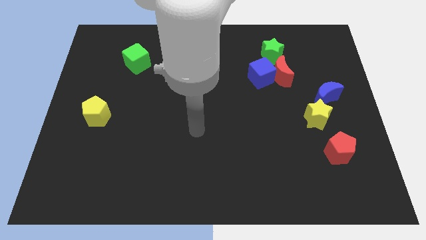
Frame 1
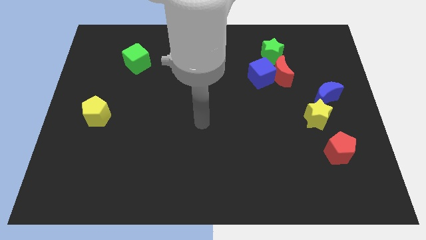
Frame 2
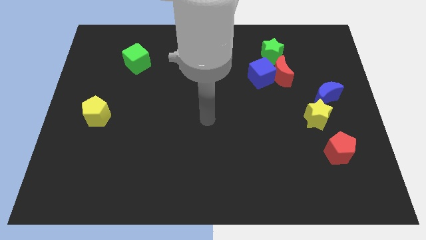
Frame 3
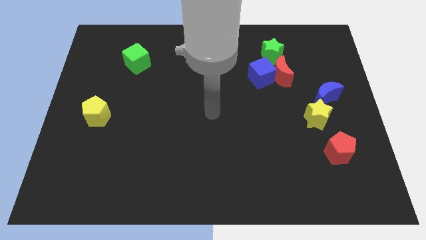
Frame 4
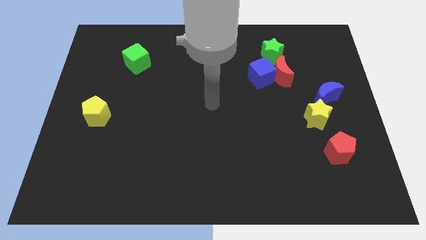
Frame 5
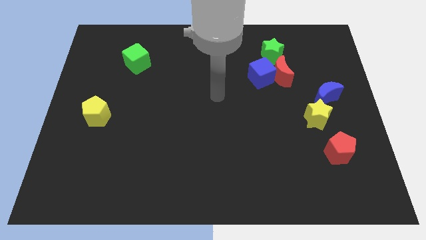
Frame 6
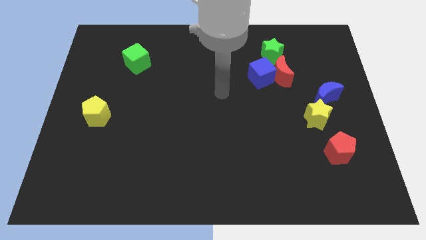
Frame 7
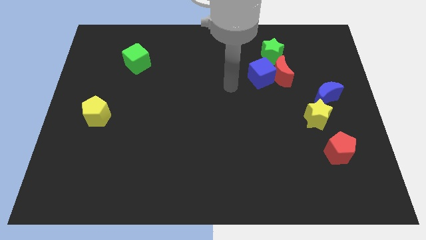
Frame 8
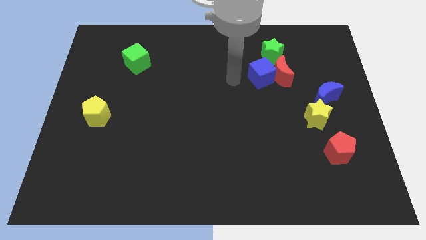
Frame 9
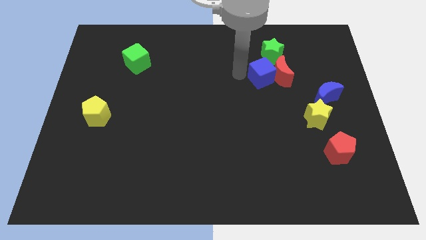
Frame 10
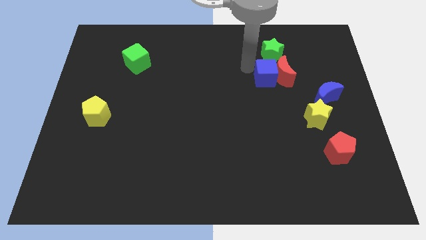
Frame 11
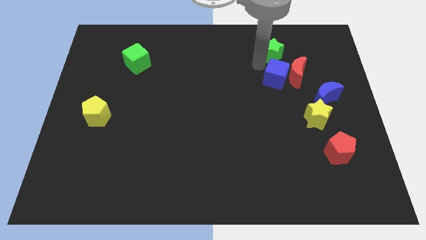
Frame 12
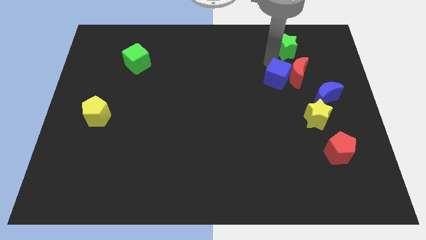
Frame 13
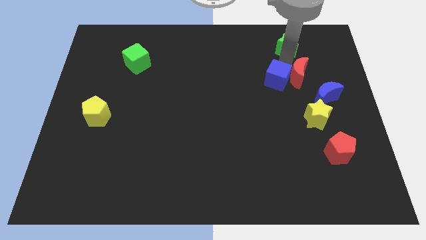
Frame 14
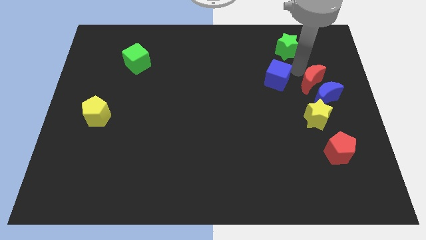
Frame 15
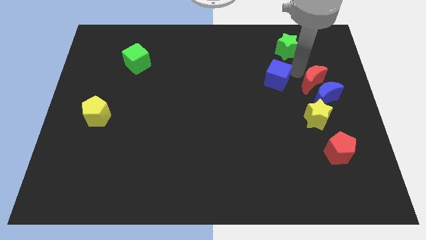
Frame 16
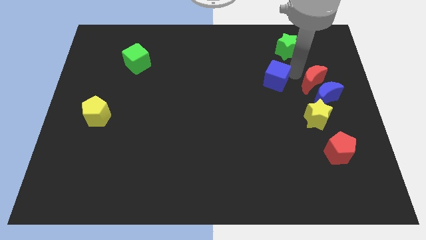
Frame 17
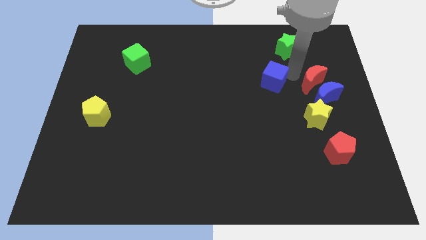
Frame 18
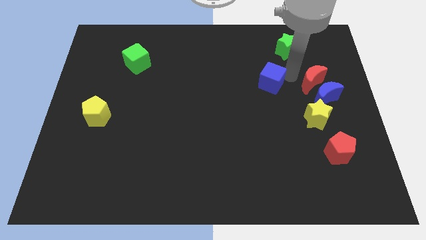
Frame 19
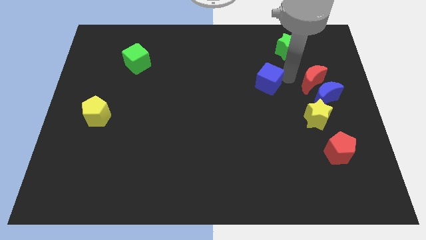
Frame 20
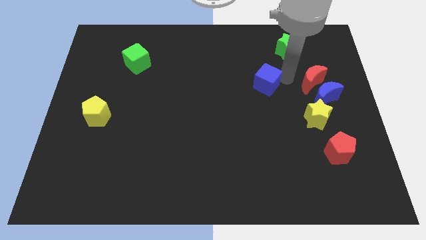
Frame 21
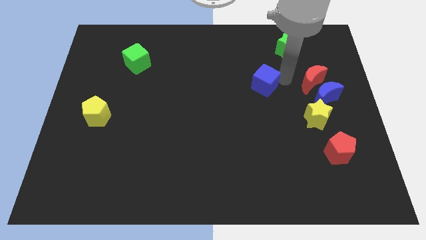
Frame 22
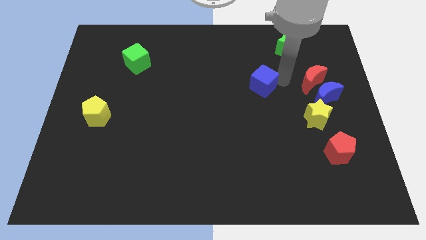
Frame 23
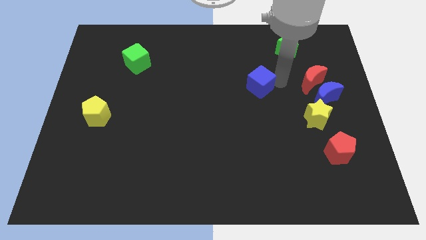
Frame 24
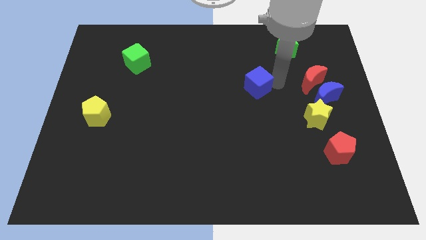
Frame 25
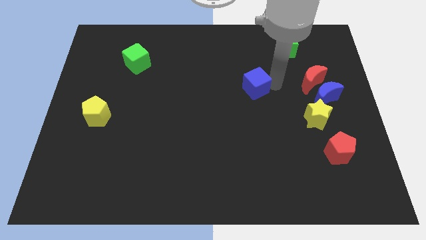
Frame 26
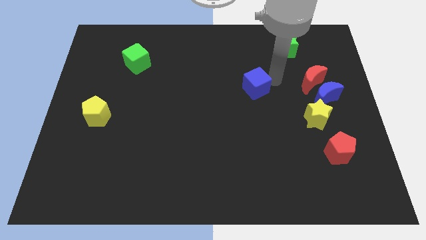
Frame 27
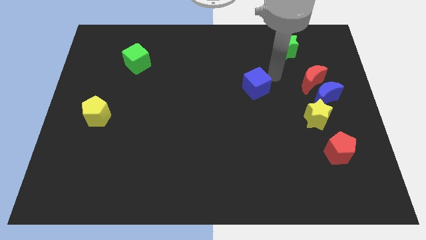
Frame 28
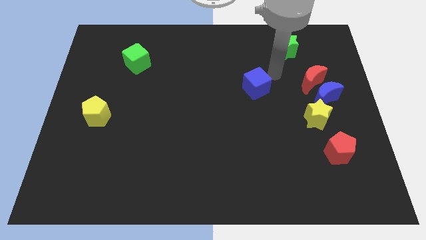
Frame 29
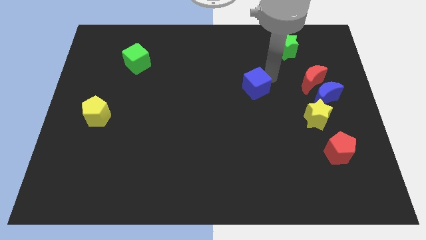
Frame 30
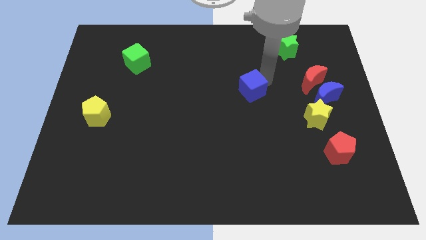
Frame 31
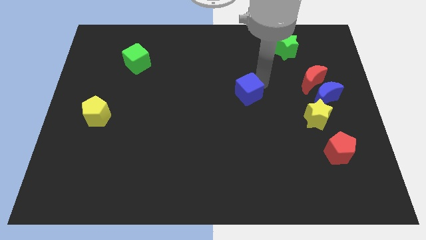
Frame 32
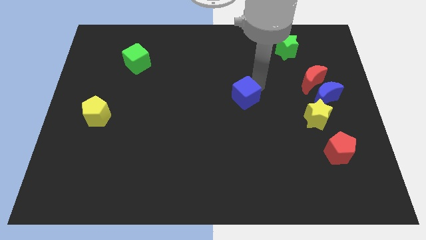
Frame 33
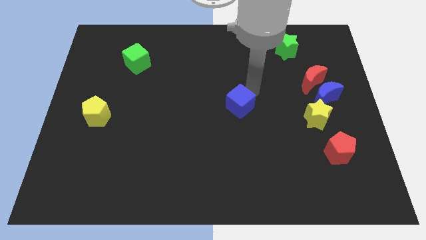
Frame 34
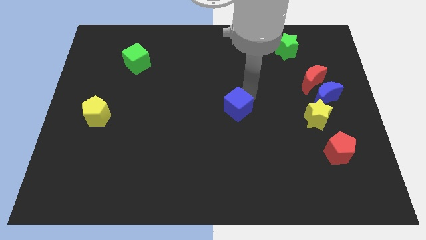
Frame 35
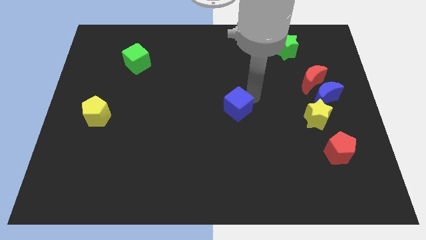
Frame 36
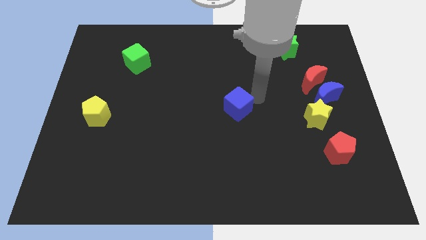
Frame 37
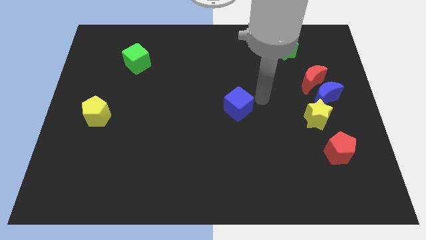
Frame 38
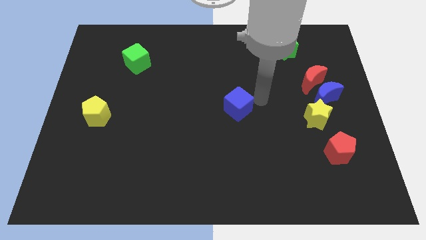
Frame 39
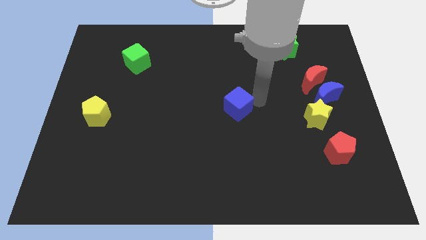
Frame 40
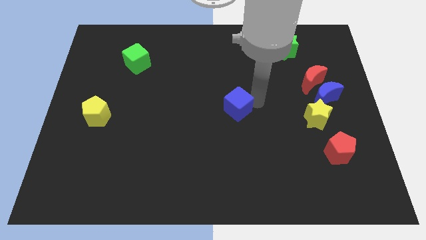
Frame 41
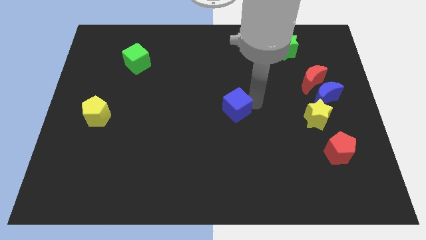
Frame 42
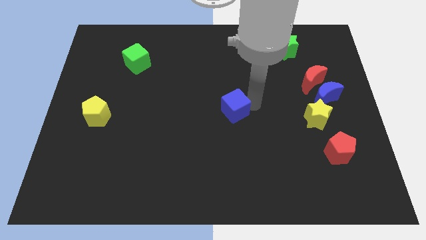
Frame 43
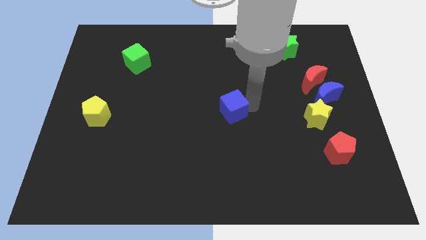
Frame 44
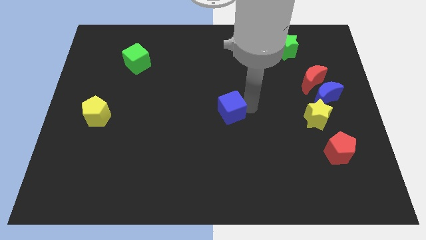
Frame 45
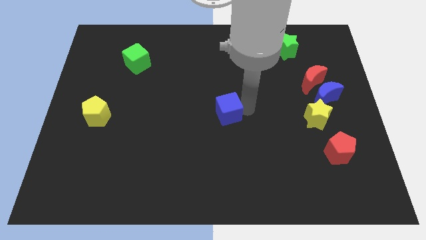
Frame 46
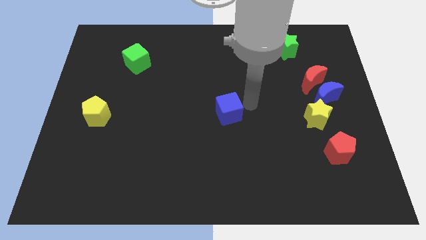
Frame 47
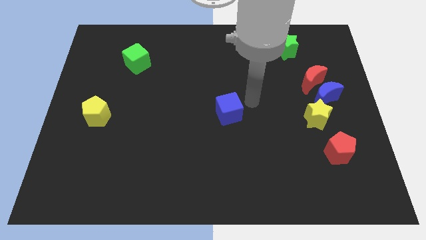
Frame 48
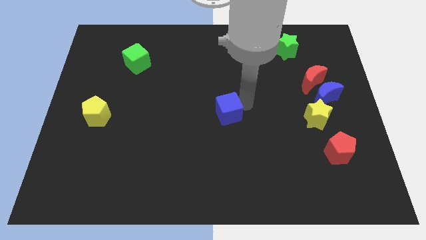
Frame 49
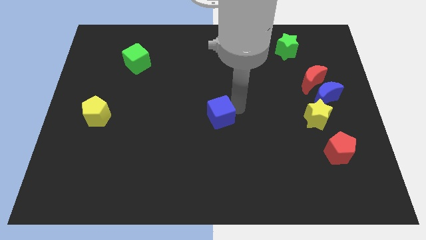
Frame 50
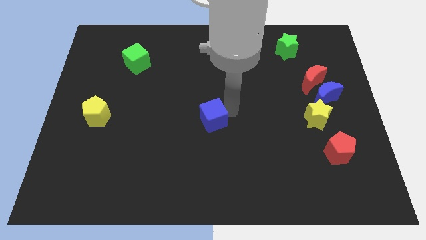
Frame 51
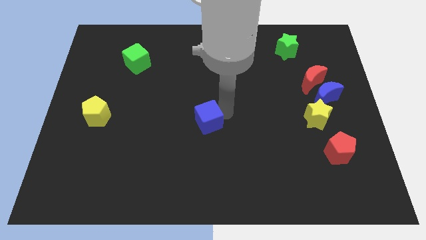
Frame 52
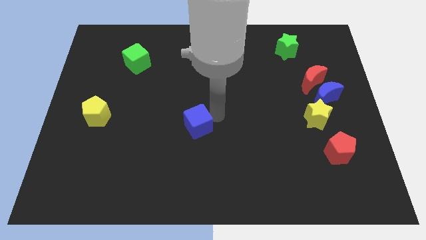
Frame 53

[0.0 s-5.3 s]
slide the blue cube down and to the left diagonally

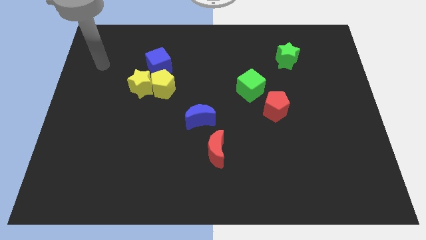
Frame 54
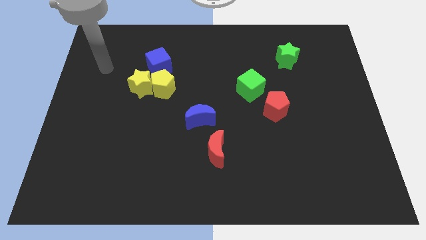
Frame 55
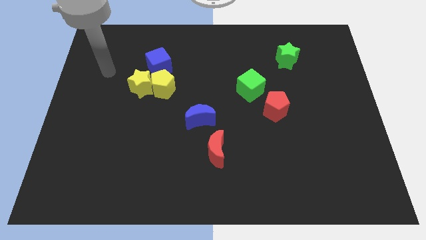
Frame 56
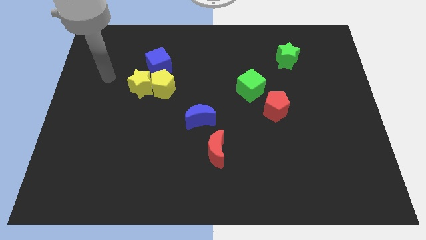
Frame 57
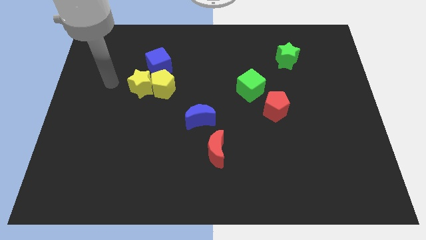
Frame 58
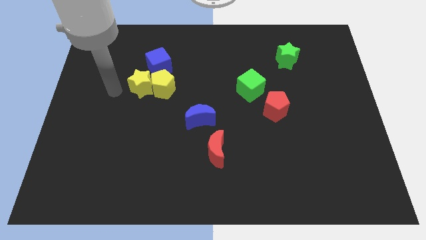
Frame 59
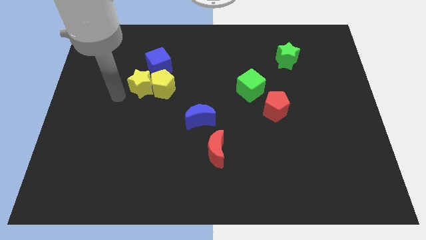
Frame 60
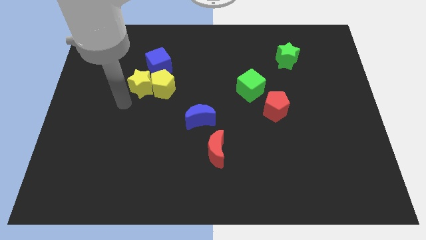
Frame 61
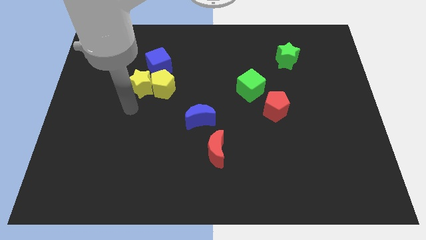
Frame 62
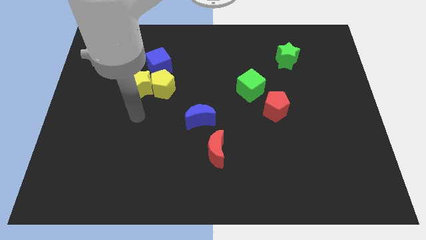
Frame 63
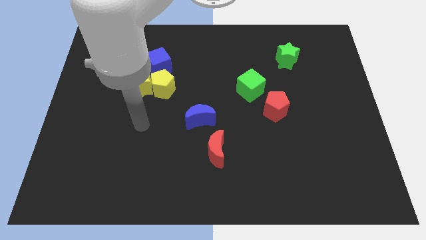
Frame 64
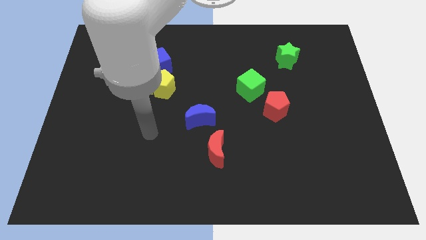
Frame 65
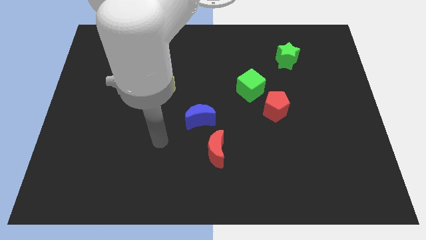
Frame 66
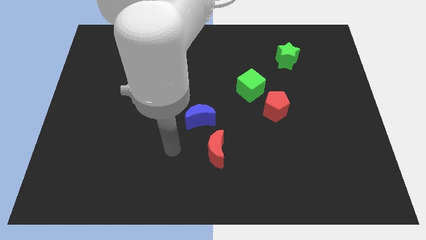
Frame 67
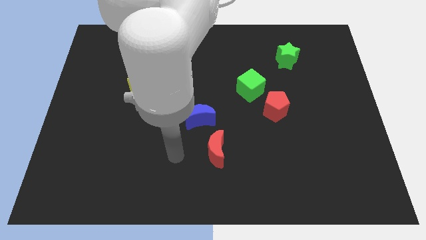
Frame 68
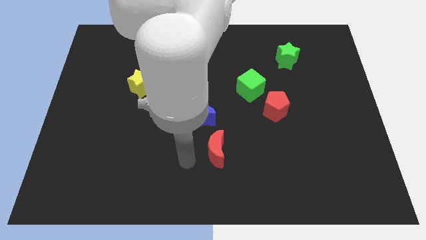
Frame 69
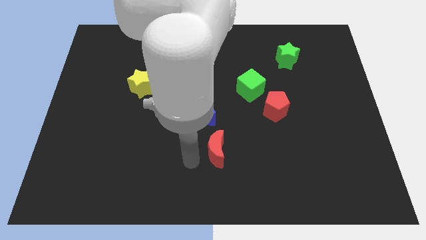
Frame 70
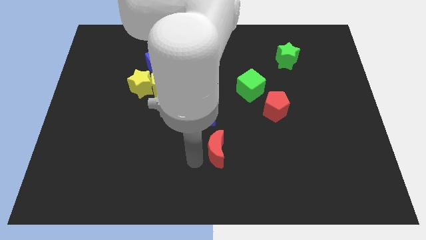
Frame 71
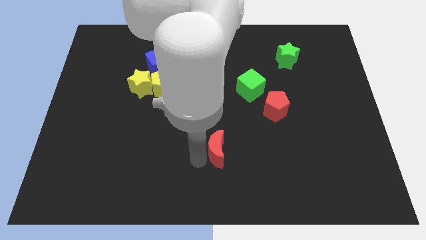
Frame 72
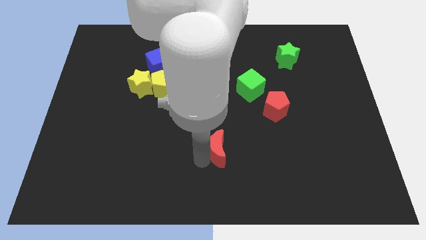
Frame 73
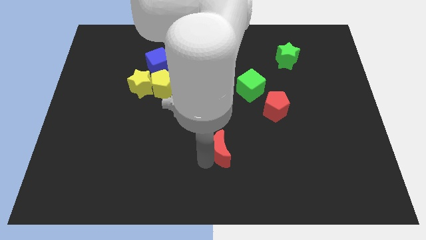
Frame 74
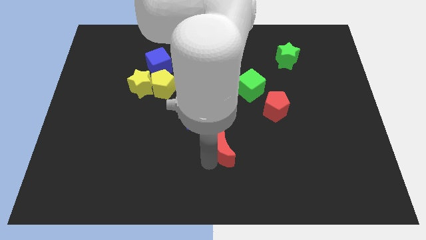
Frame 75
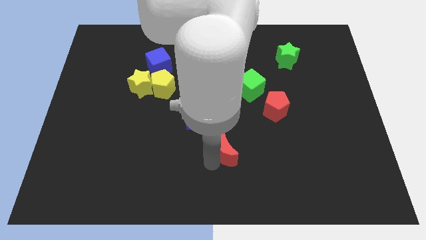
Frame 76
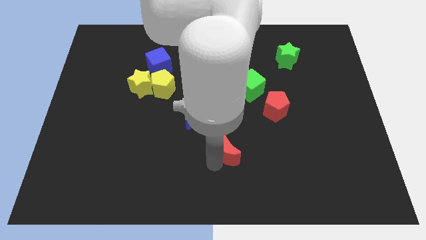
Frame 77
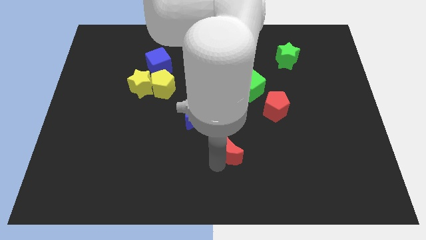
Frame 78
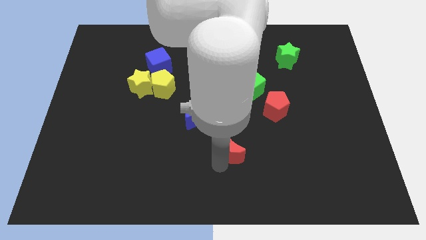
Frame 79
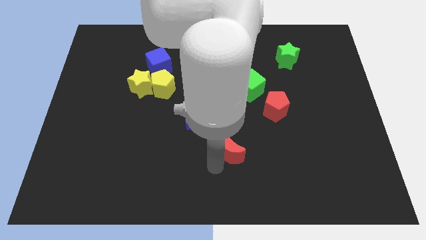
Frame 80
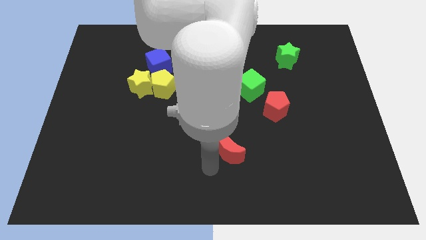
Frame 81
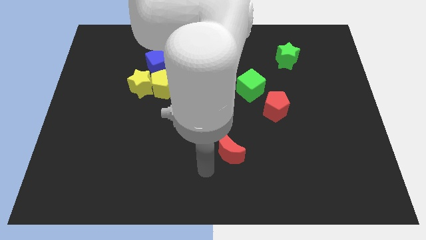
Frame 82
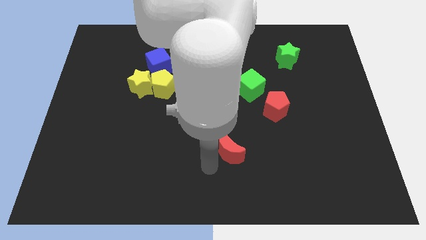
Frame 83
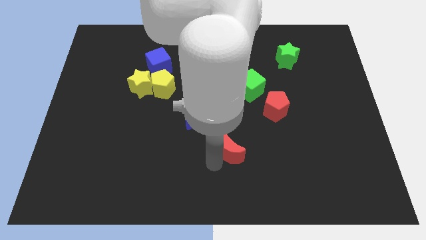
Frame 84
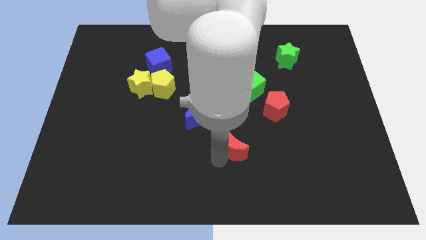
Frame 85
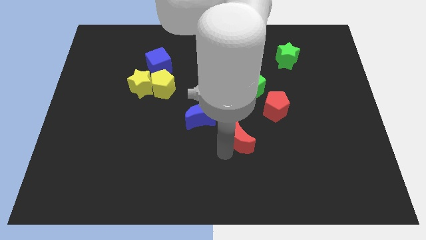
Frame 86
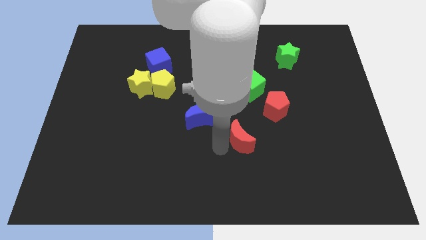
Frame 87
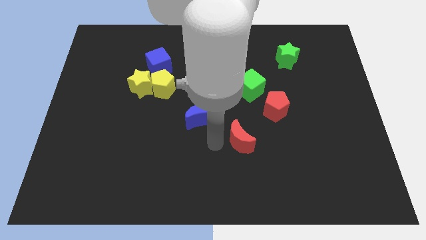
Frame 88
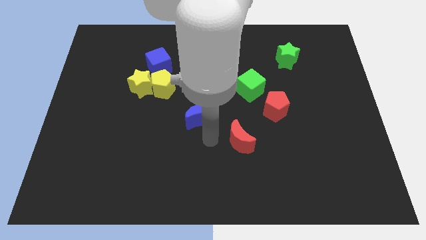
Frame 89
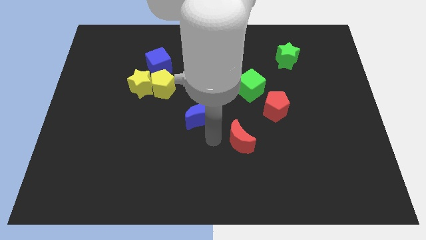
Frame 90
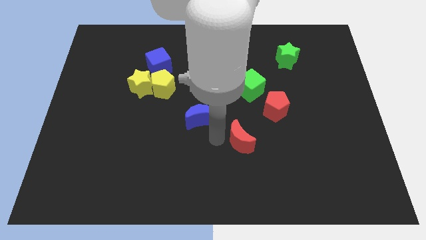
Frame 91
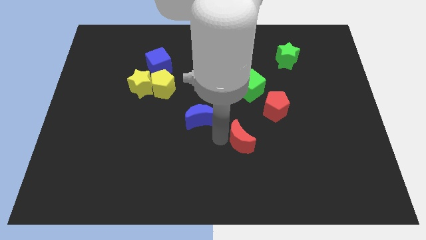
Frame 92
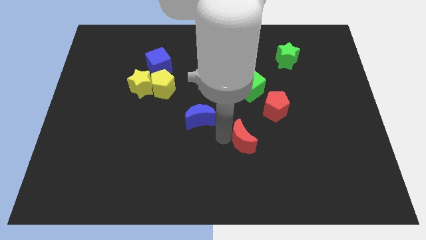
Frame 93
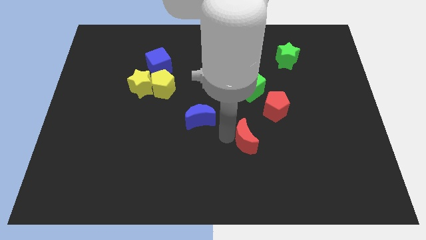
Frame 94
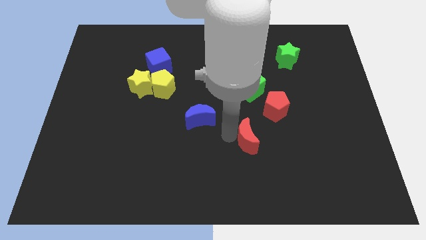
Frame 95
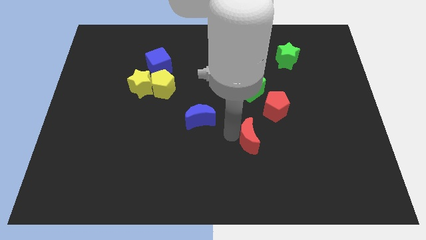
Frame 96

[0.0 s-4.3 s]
push the red moon to the right a little
